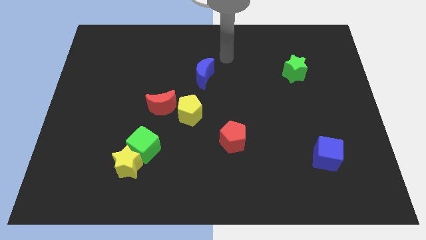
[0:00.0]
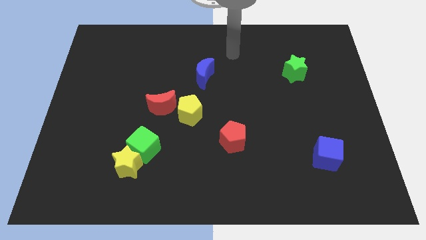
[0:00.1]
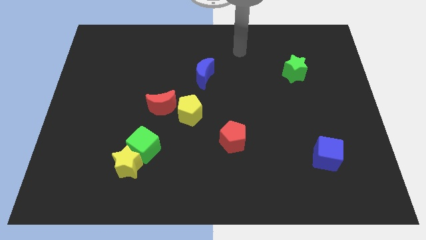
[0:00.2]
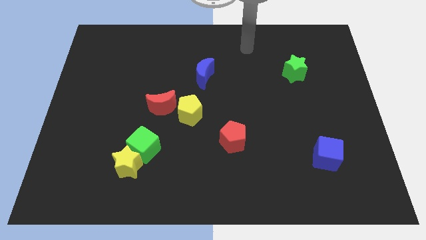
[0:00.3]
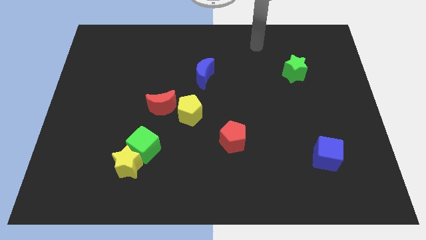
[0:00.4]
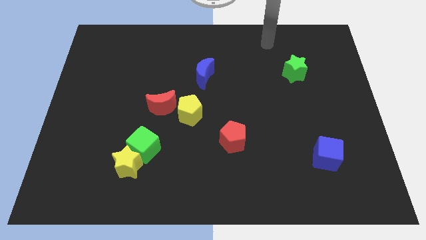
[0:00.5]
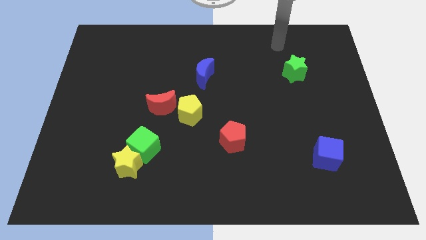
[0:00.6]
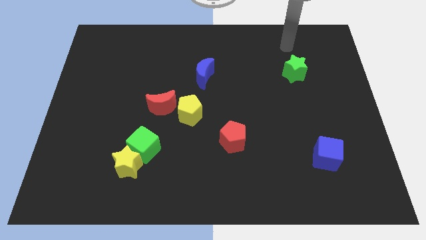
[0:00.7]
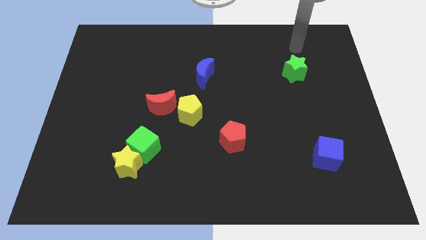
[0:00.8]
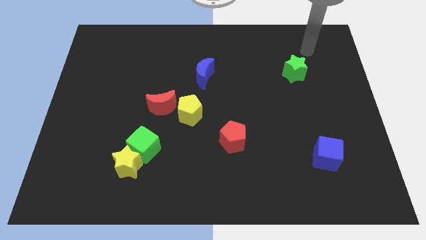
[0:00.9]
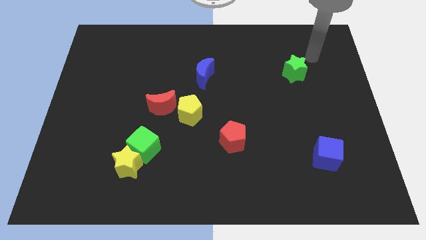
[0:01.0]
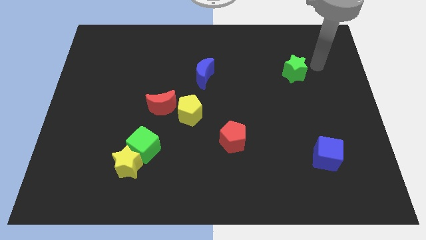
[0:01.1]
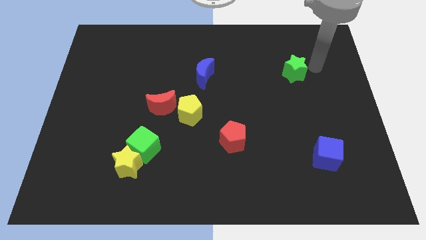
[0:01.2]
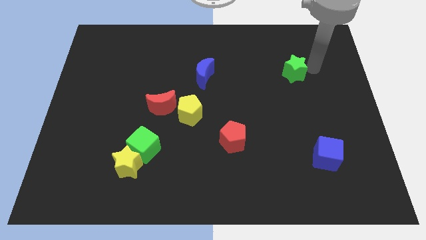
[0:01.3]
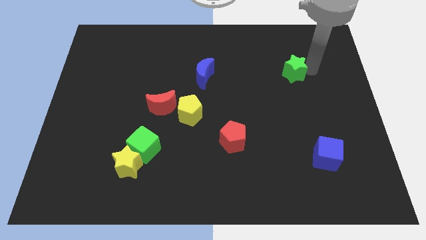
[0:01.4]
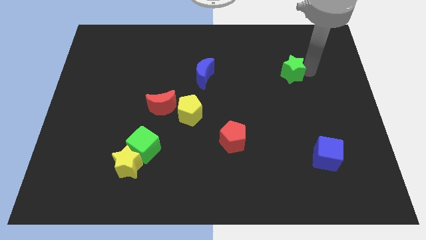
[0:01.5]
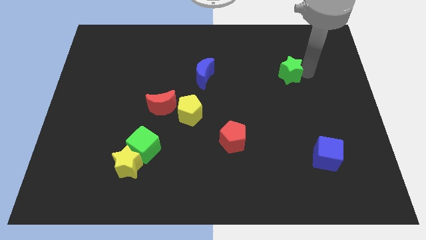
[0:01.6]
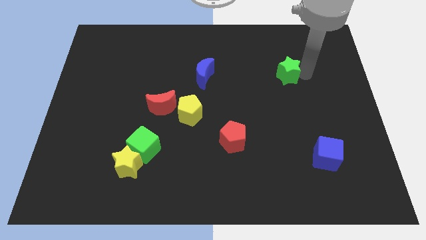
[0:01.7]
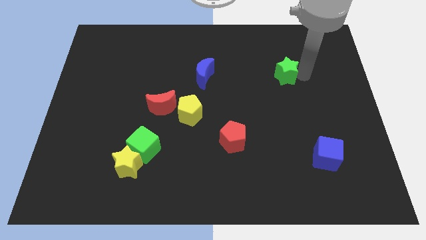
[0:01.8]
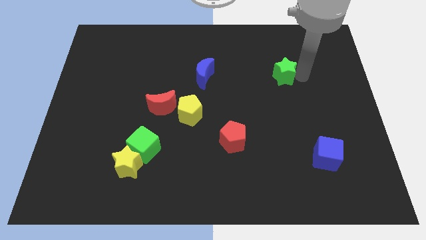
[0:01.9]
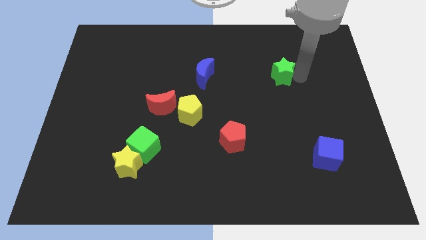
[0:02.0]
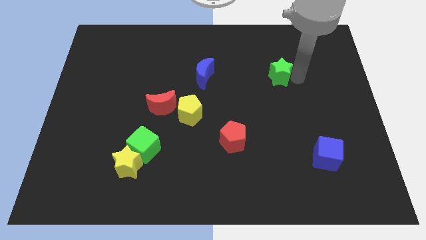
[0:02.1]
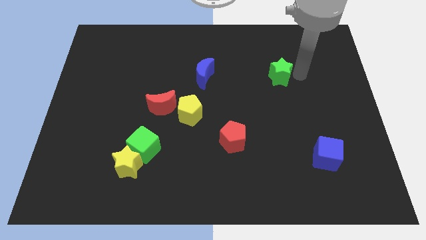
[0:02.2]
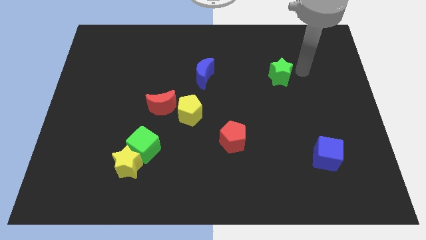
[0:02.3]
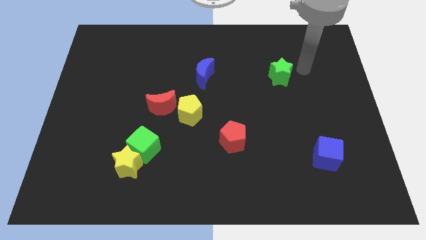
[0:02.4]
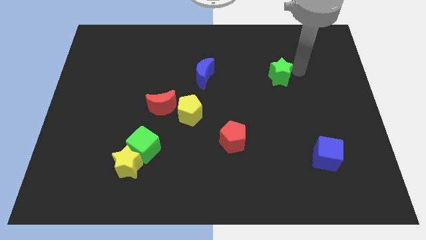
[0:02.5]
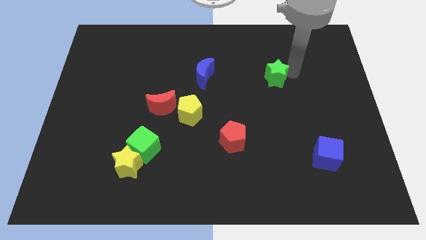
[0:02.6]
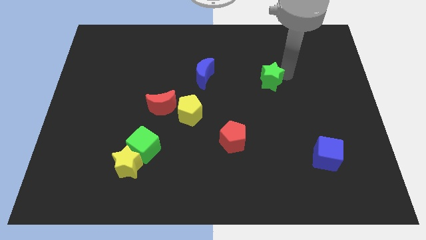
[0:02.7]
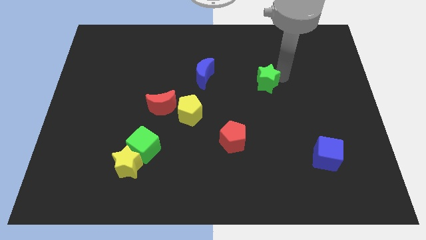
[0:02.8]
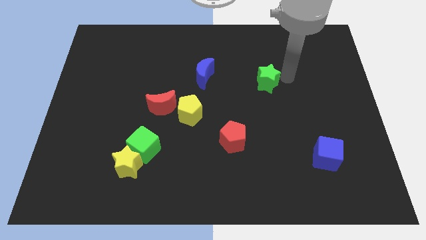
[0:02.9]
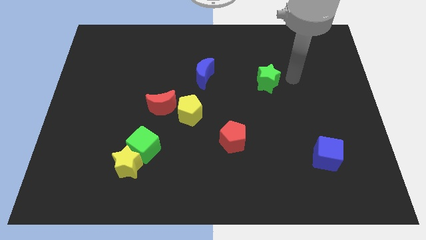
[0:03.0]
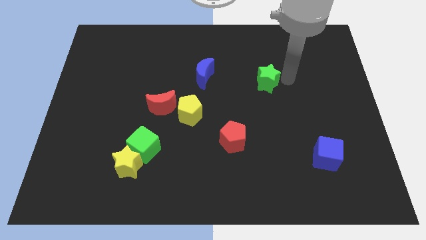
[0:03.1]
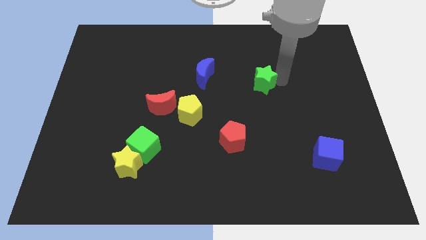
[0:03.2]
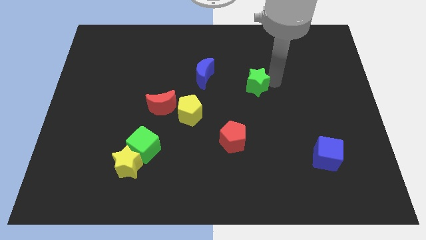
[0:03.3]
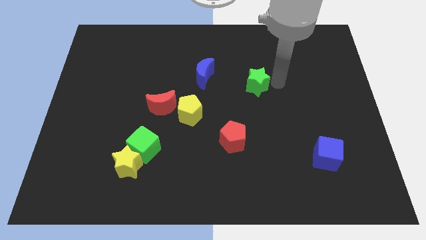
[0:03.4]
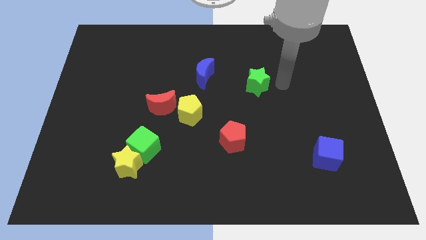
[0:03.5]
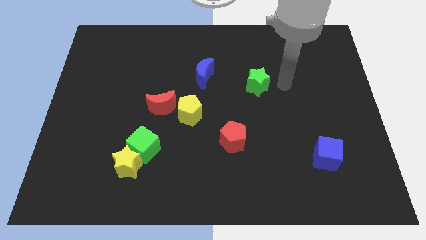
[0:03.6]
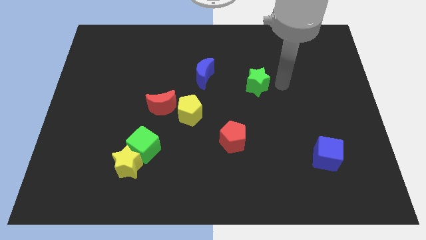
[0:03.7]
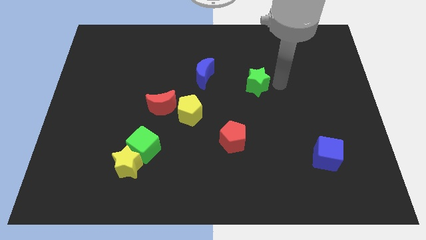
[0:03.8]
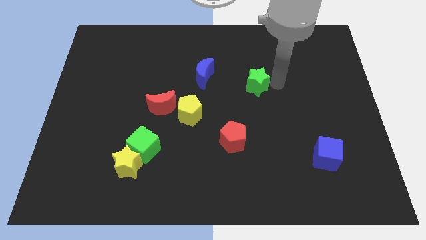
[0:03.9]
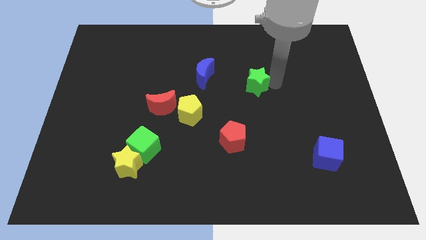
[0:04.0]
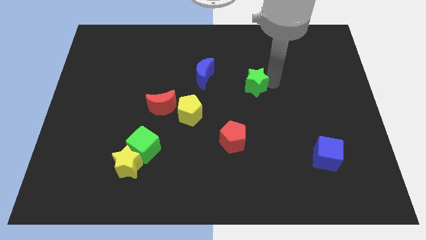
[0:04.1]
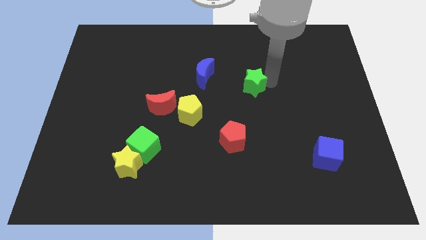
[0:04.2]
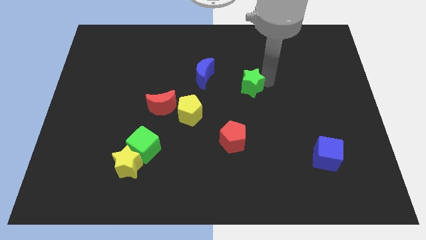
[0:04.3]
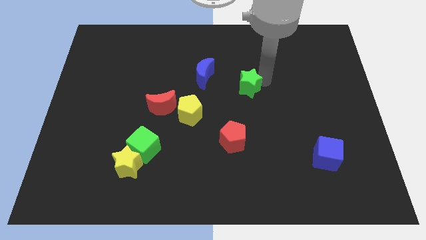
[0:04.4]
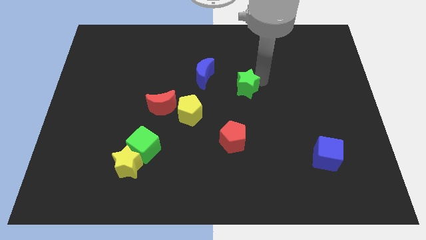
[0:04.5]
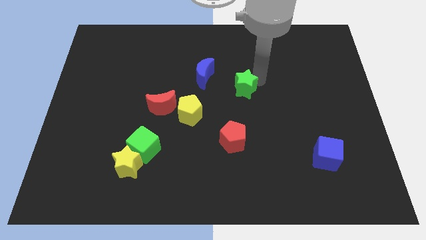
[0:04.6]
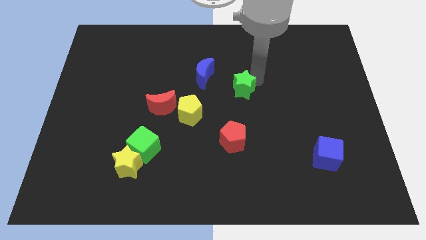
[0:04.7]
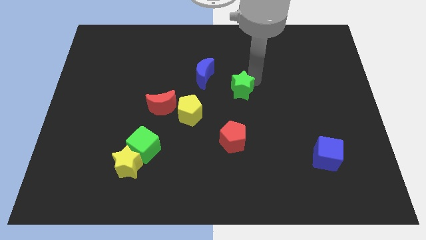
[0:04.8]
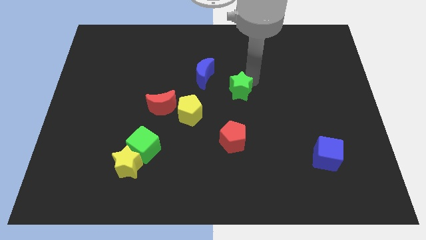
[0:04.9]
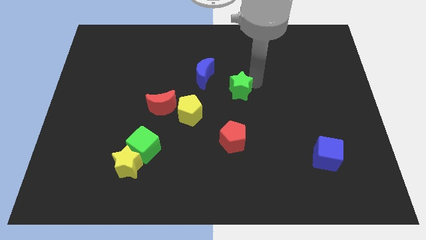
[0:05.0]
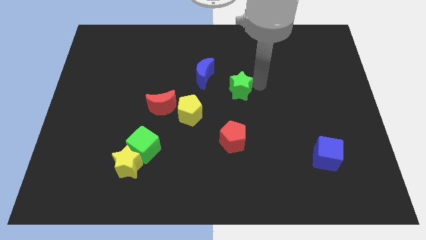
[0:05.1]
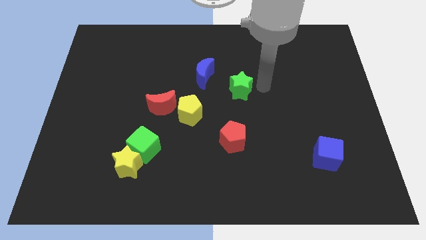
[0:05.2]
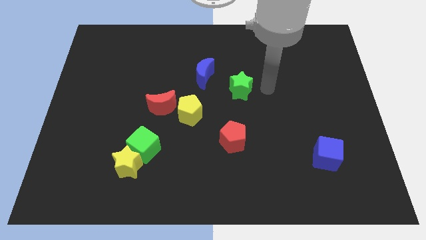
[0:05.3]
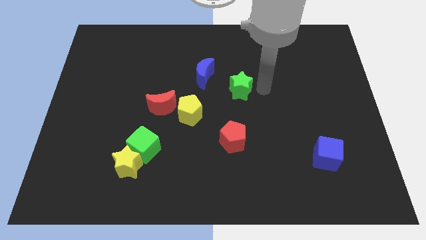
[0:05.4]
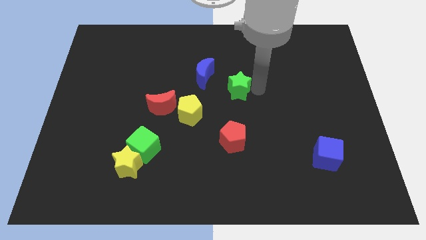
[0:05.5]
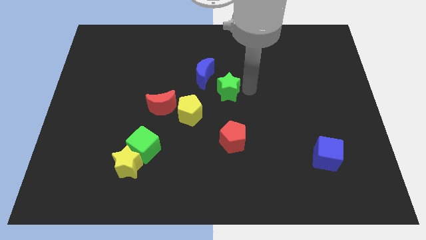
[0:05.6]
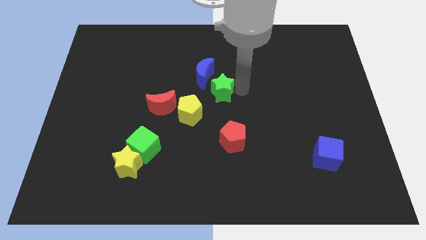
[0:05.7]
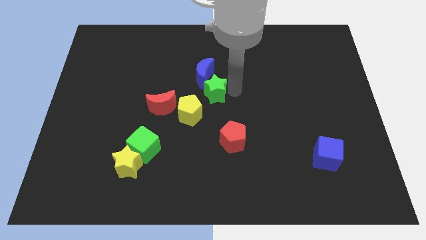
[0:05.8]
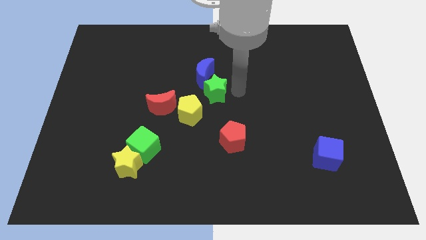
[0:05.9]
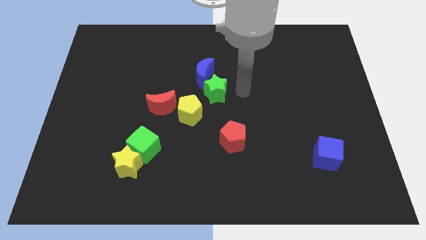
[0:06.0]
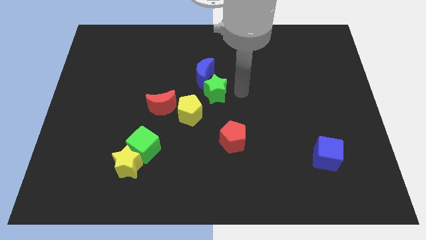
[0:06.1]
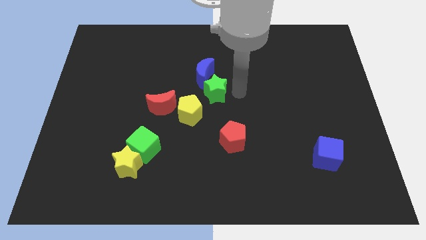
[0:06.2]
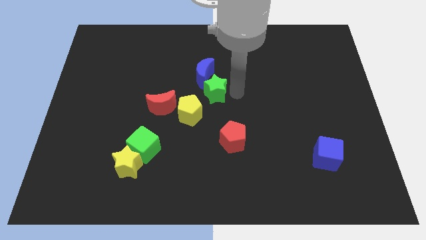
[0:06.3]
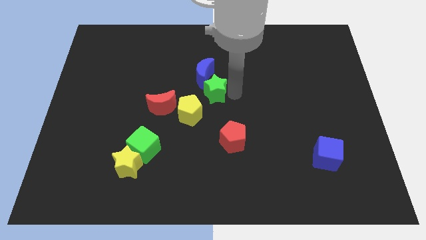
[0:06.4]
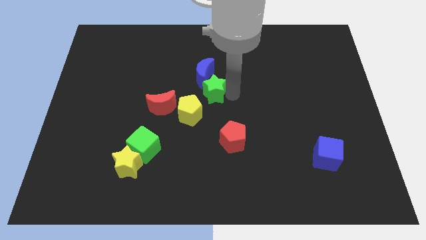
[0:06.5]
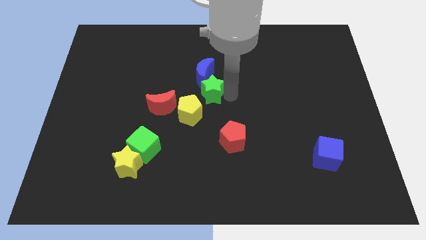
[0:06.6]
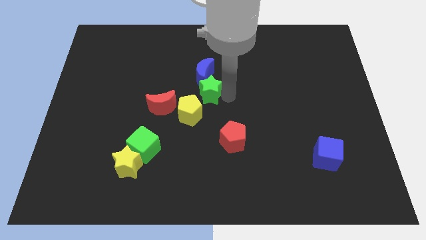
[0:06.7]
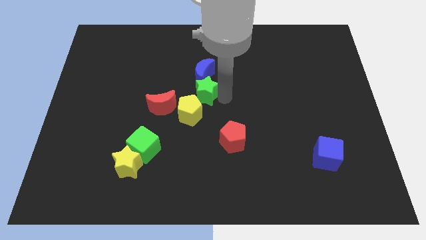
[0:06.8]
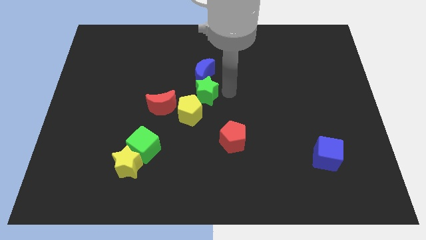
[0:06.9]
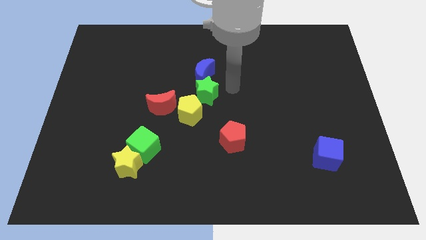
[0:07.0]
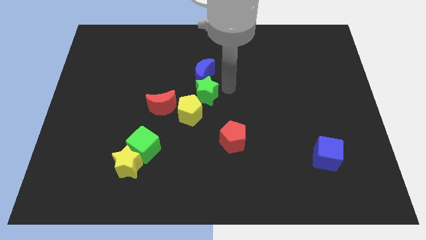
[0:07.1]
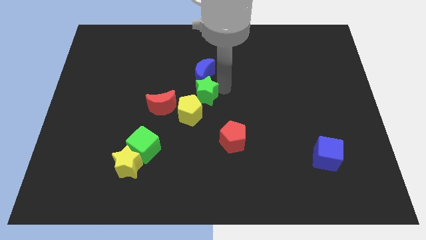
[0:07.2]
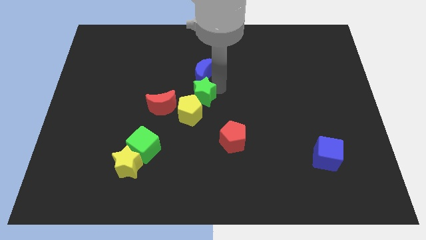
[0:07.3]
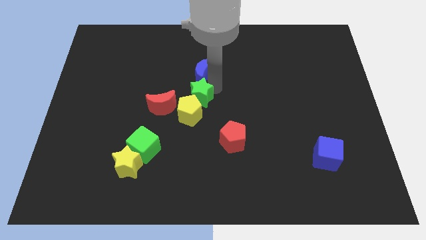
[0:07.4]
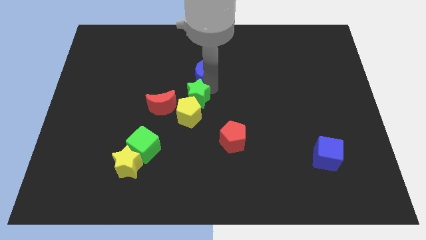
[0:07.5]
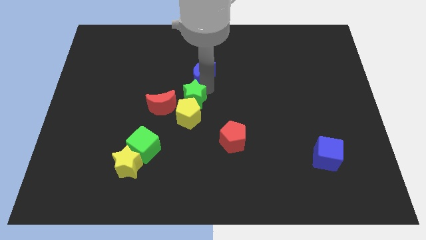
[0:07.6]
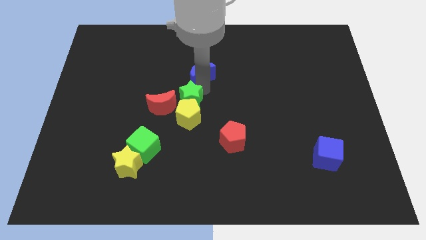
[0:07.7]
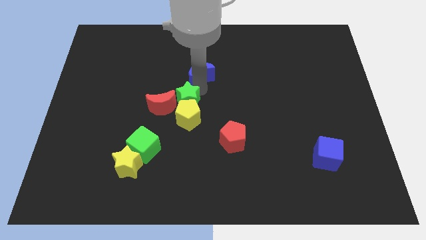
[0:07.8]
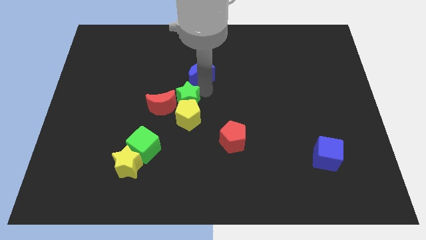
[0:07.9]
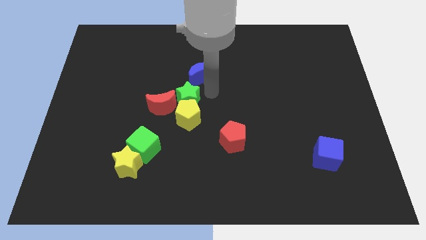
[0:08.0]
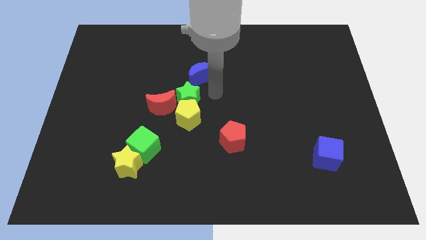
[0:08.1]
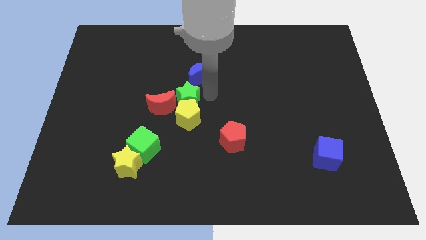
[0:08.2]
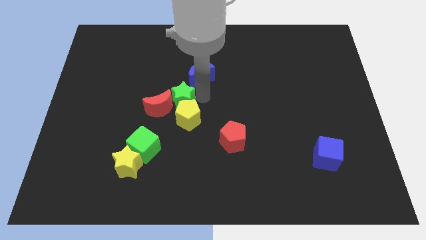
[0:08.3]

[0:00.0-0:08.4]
put the green star to the red moon
